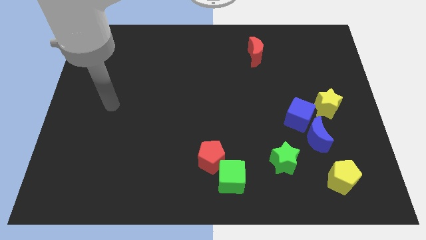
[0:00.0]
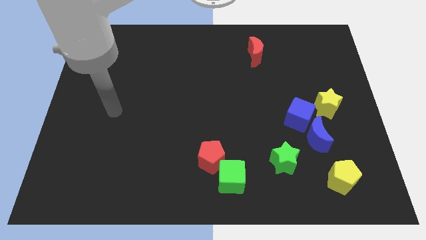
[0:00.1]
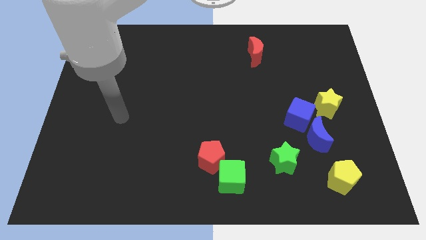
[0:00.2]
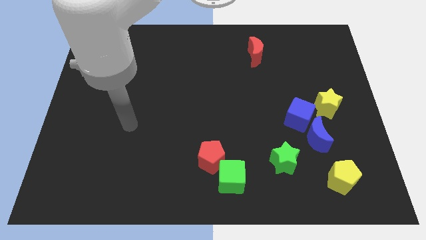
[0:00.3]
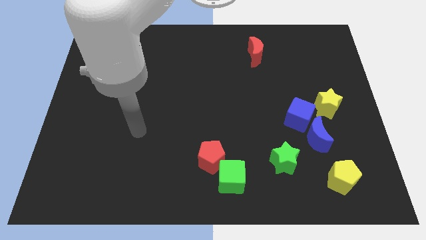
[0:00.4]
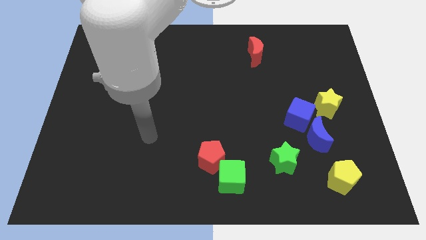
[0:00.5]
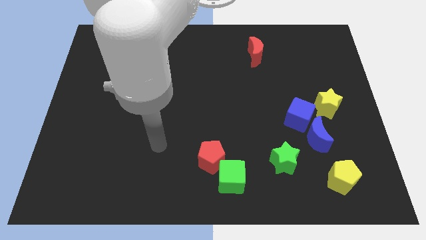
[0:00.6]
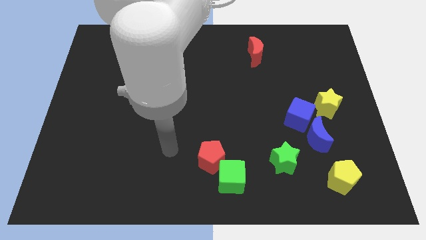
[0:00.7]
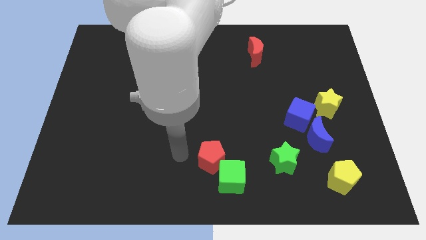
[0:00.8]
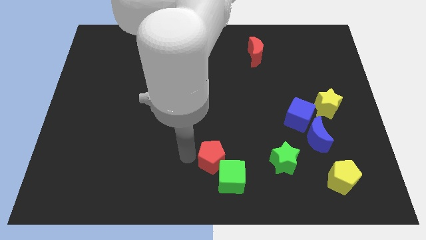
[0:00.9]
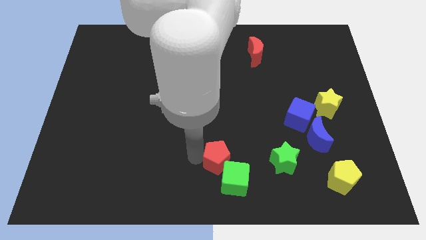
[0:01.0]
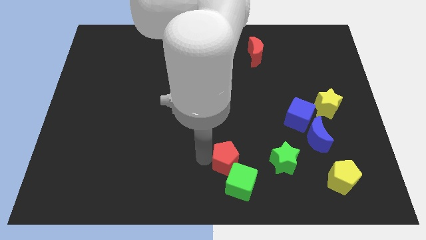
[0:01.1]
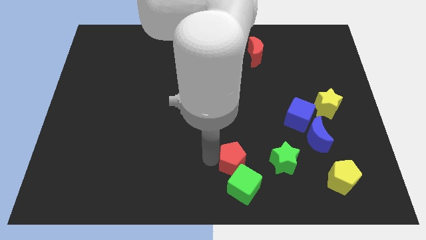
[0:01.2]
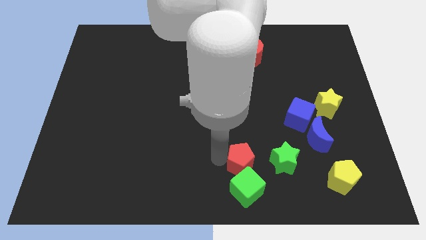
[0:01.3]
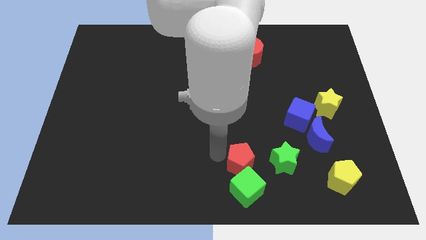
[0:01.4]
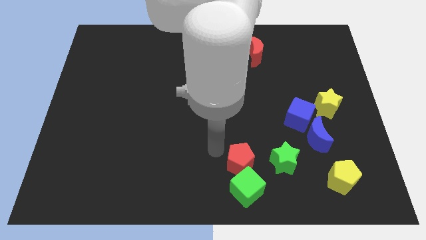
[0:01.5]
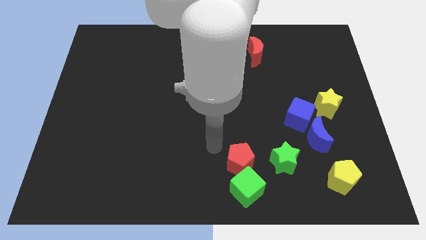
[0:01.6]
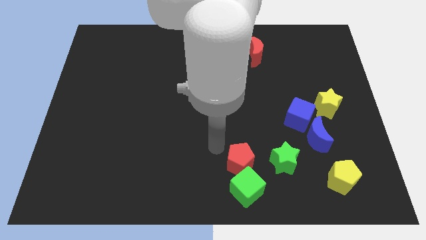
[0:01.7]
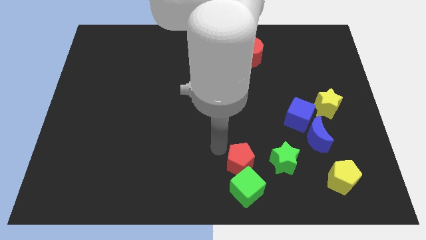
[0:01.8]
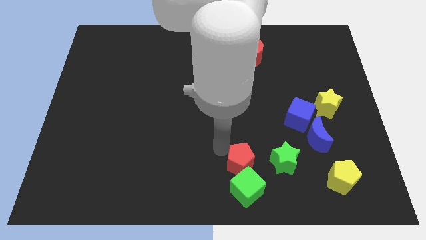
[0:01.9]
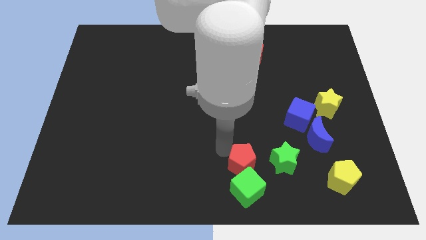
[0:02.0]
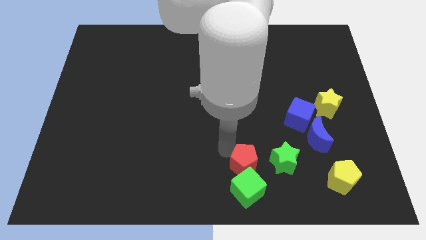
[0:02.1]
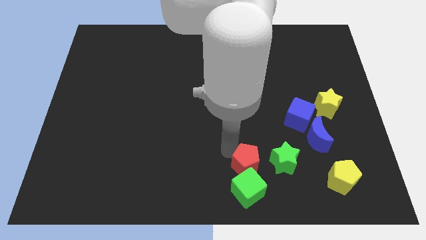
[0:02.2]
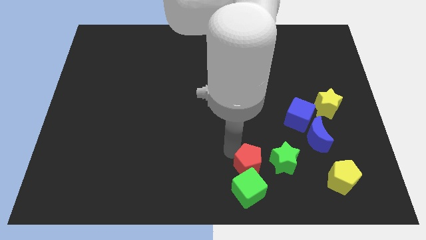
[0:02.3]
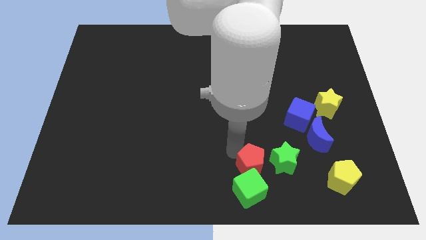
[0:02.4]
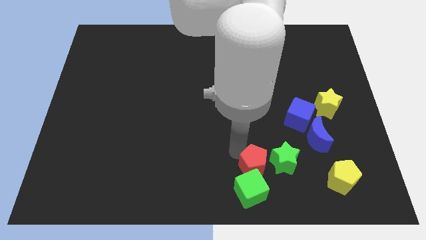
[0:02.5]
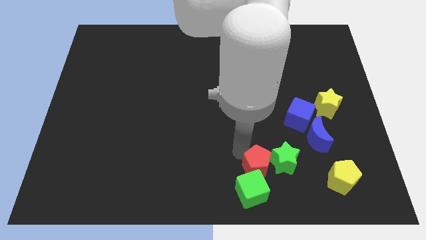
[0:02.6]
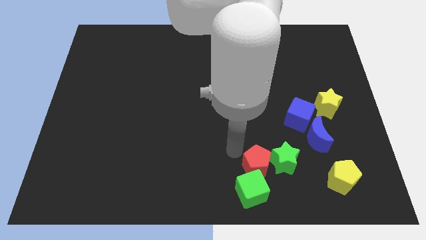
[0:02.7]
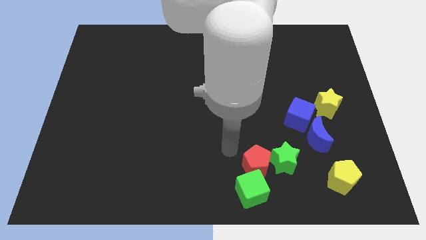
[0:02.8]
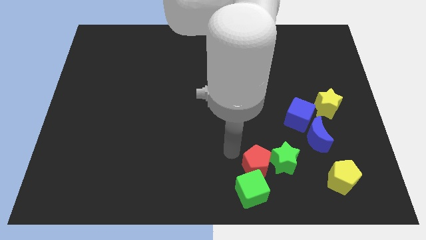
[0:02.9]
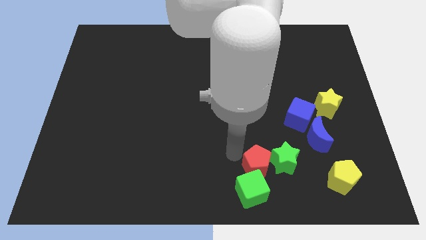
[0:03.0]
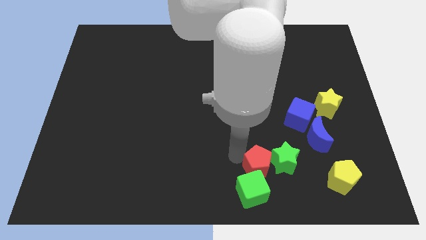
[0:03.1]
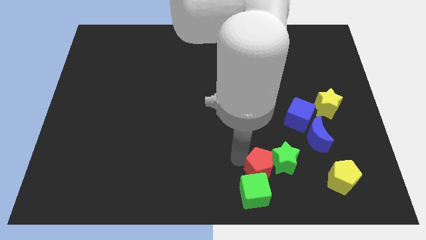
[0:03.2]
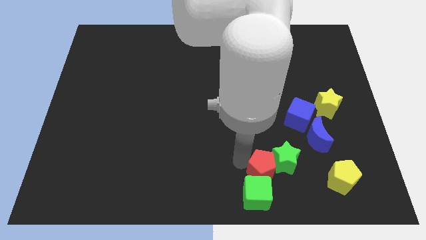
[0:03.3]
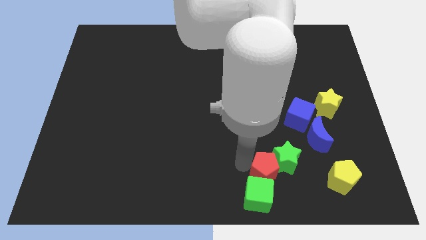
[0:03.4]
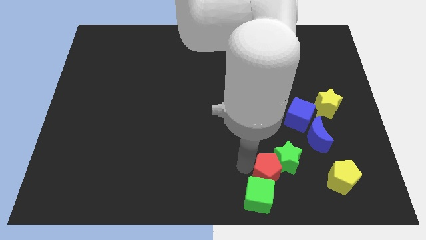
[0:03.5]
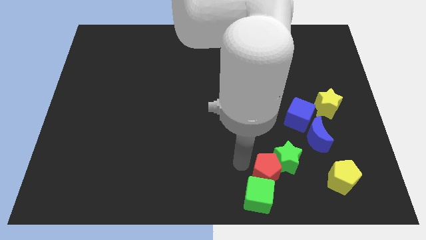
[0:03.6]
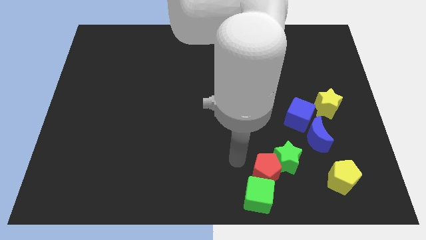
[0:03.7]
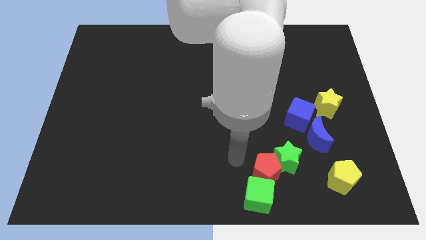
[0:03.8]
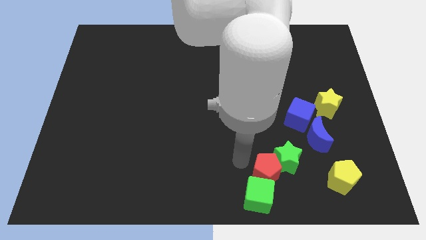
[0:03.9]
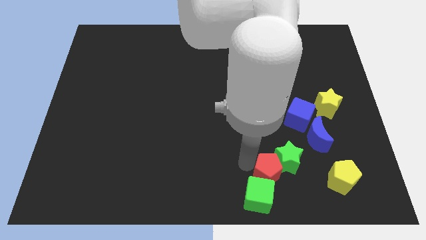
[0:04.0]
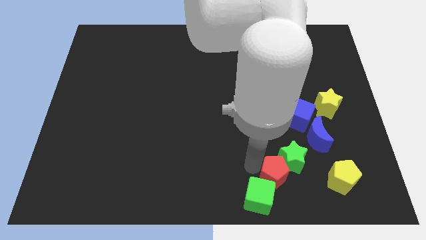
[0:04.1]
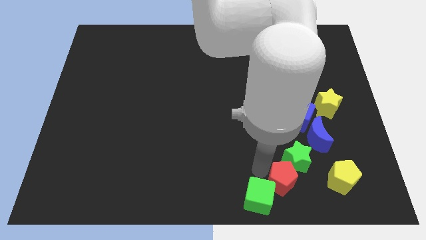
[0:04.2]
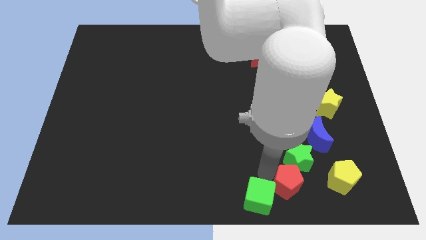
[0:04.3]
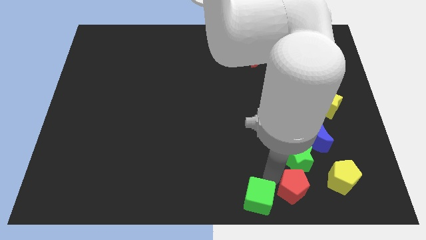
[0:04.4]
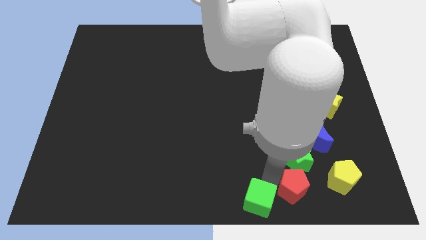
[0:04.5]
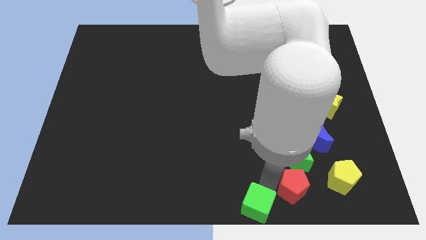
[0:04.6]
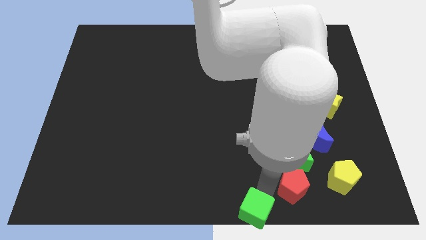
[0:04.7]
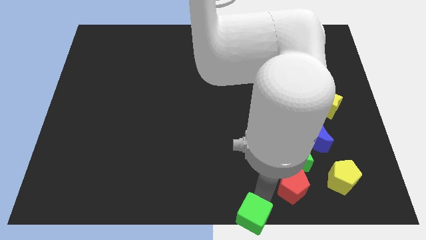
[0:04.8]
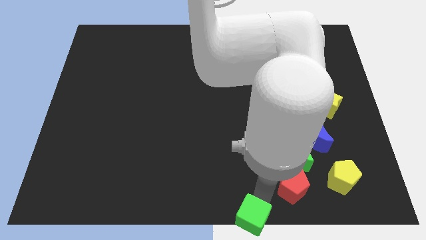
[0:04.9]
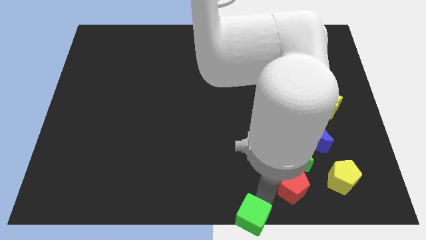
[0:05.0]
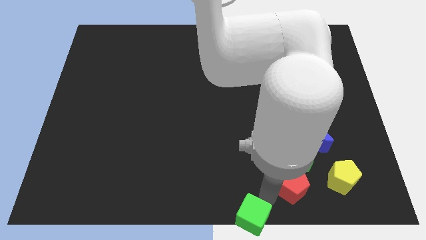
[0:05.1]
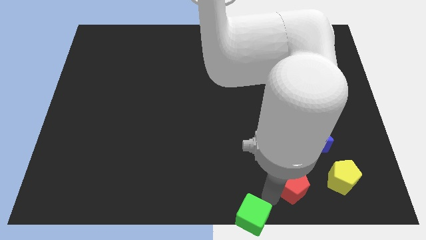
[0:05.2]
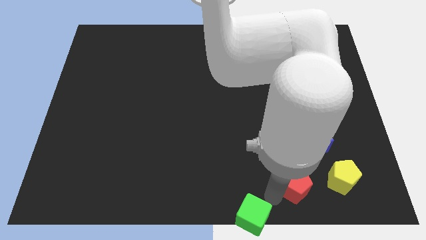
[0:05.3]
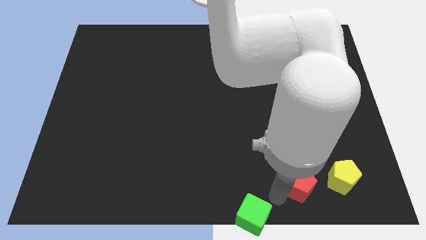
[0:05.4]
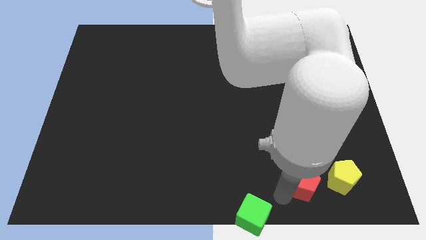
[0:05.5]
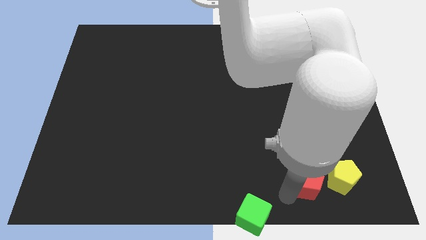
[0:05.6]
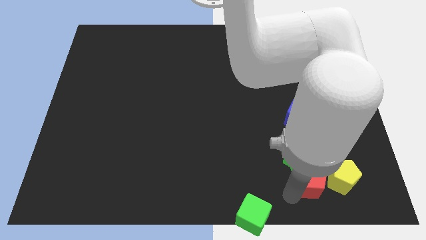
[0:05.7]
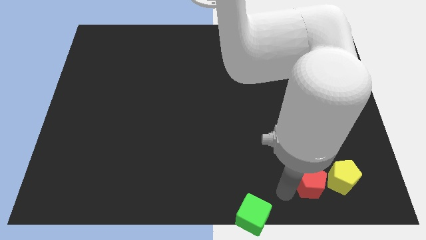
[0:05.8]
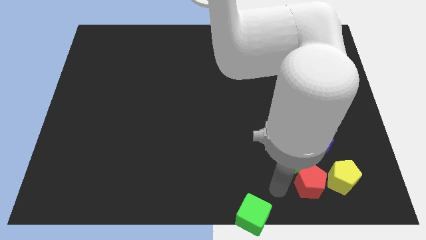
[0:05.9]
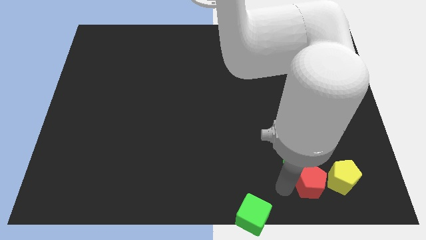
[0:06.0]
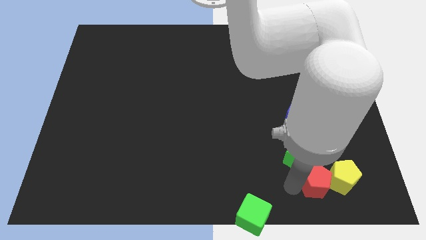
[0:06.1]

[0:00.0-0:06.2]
put the red pentagon towards the yellow pentagon

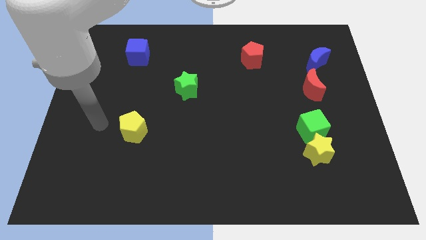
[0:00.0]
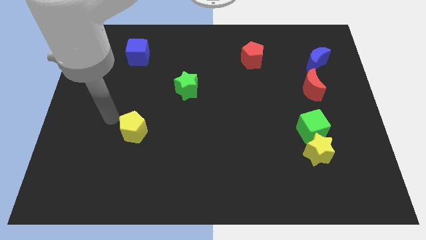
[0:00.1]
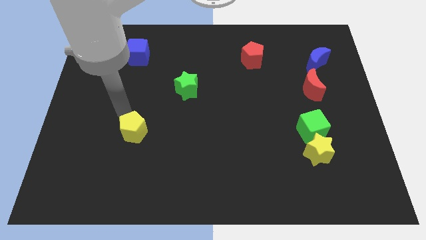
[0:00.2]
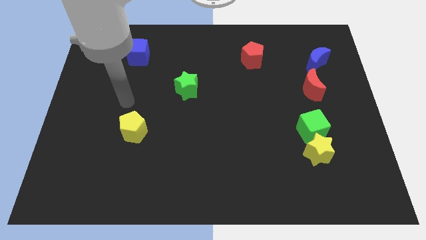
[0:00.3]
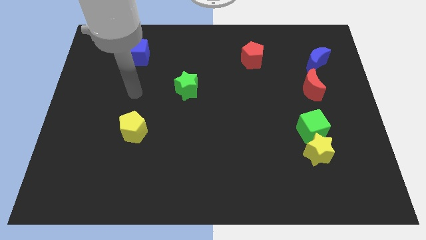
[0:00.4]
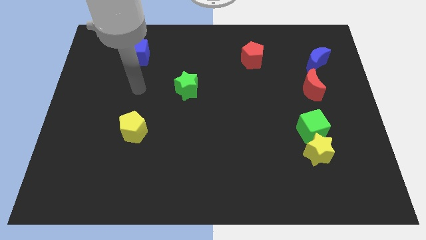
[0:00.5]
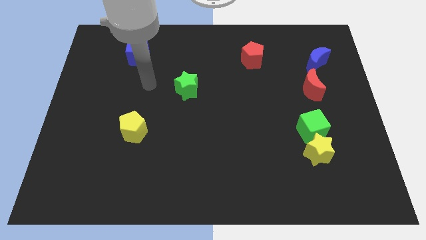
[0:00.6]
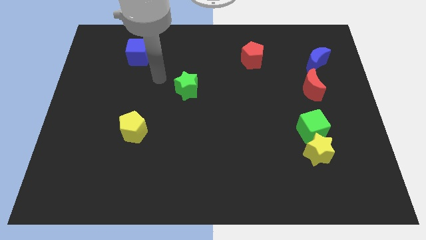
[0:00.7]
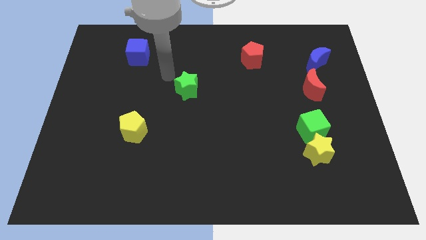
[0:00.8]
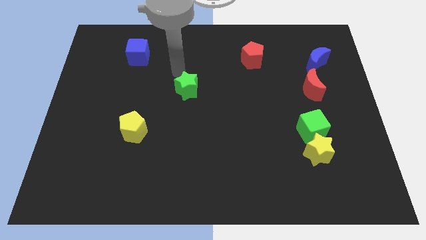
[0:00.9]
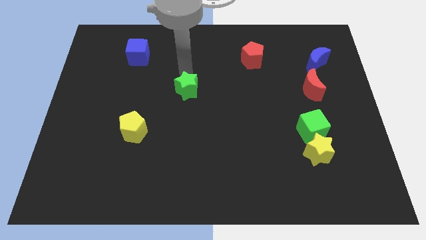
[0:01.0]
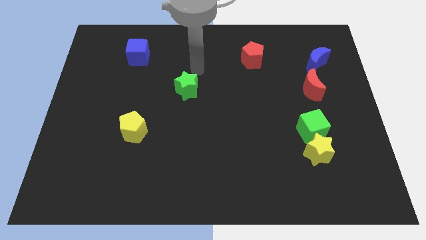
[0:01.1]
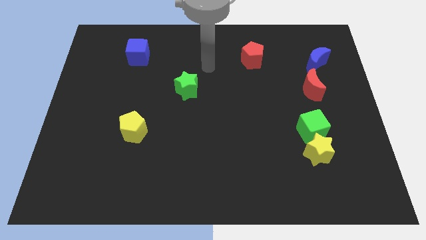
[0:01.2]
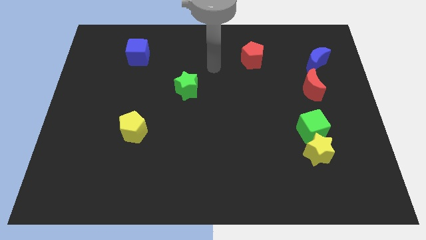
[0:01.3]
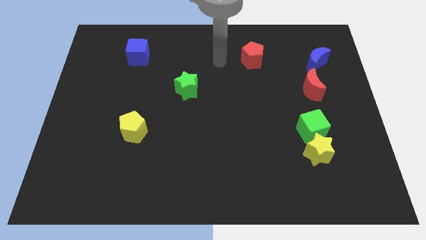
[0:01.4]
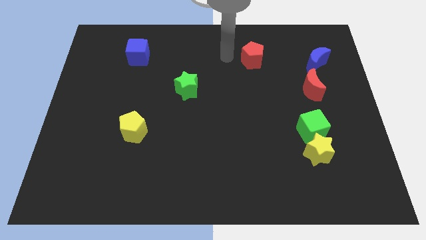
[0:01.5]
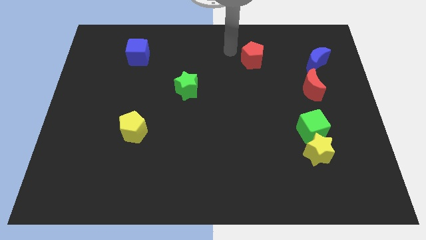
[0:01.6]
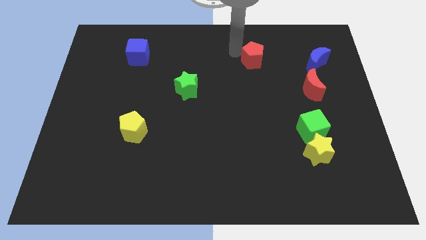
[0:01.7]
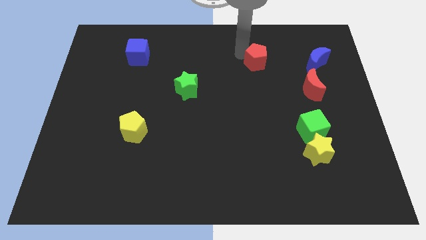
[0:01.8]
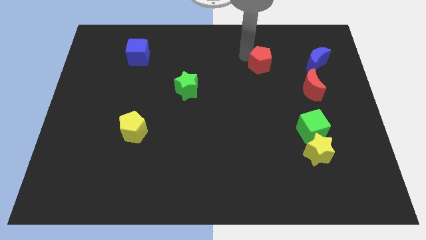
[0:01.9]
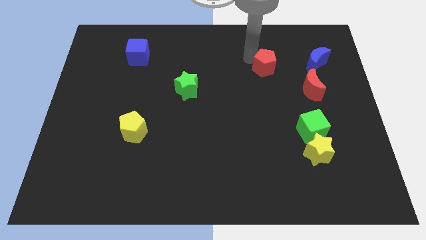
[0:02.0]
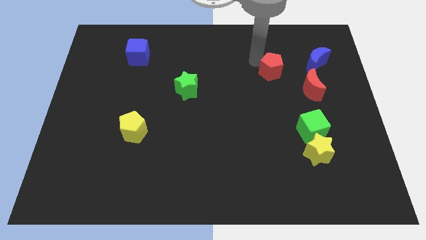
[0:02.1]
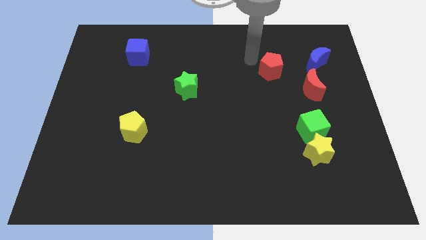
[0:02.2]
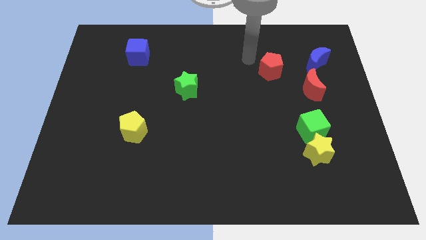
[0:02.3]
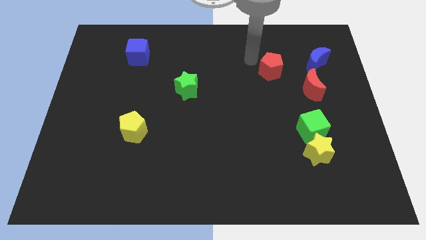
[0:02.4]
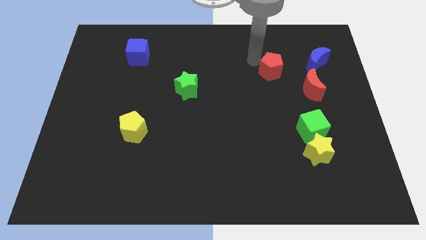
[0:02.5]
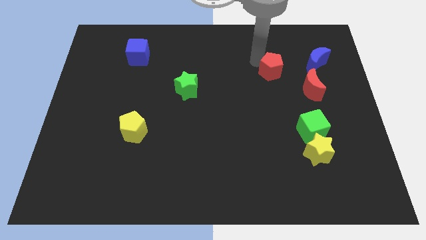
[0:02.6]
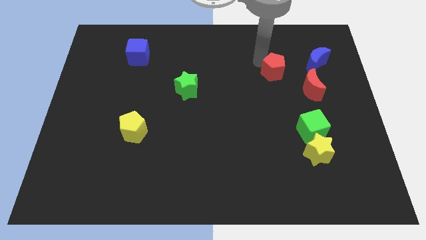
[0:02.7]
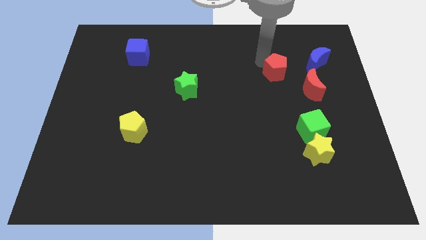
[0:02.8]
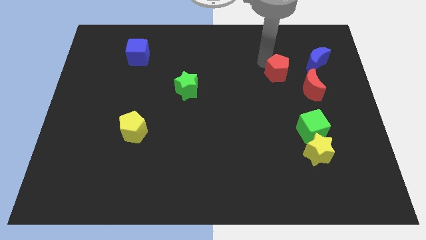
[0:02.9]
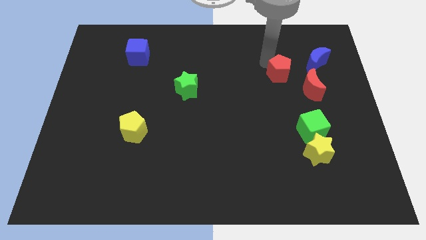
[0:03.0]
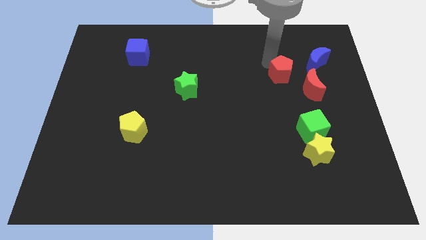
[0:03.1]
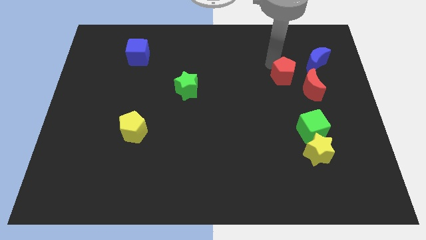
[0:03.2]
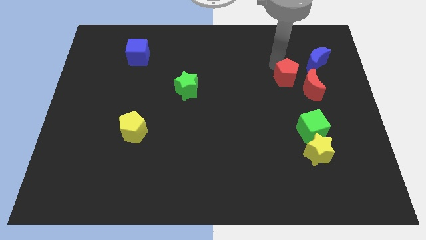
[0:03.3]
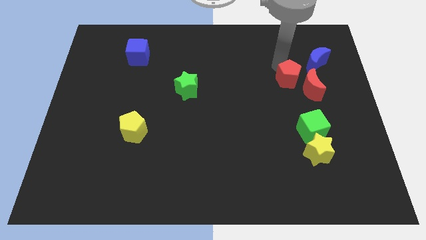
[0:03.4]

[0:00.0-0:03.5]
put the red pentagon next to the red moon
